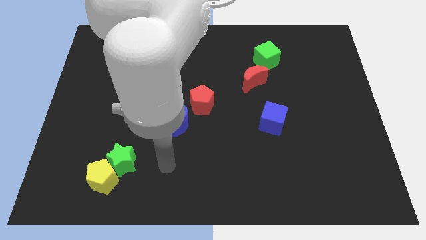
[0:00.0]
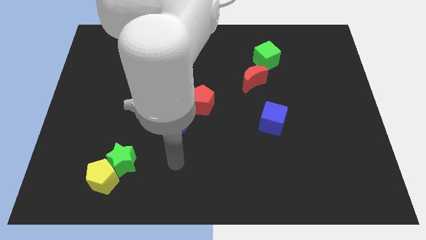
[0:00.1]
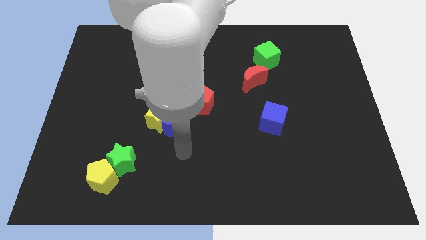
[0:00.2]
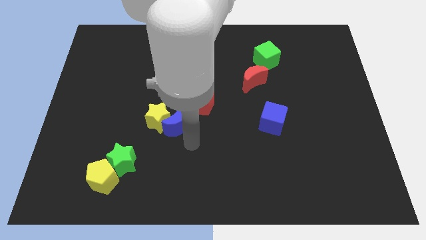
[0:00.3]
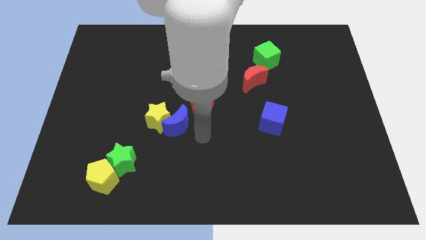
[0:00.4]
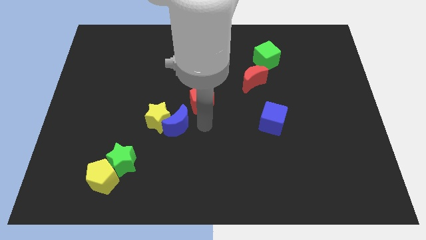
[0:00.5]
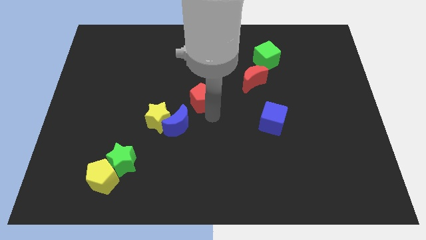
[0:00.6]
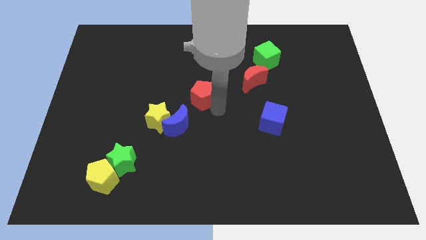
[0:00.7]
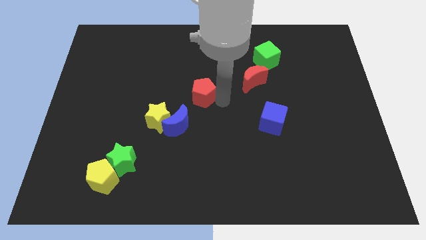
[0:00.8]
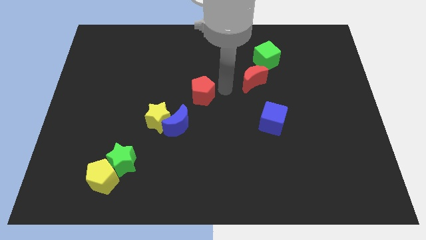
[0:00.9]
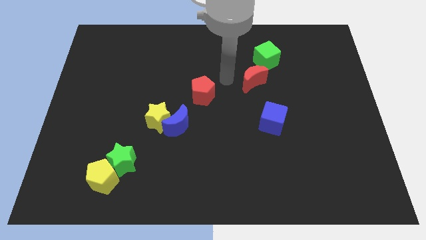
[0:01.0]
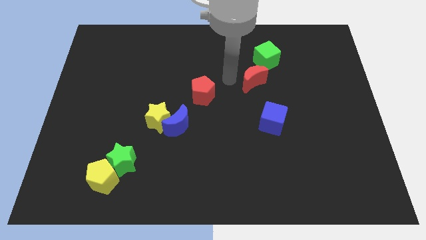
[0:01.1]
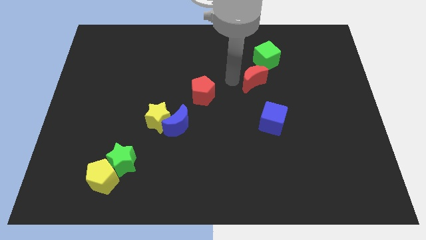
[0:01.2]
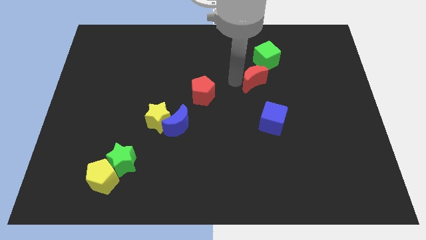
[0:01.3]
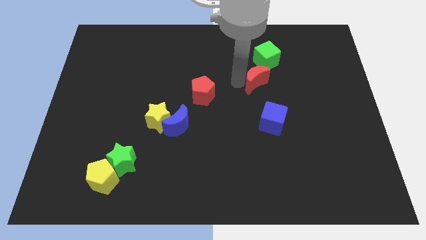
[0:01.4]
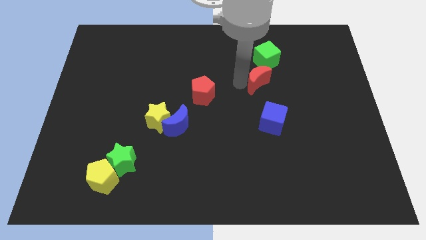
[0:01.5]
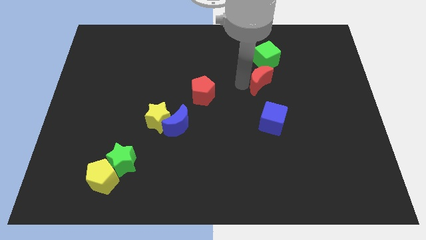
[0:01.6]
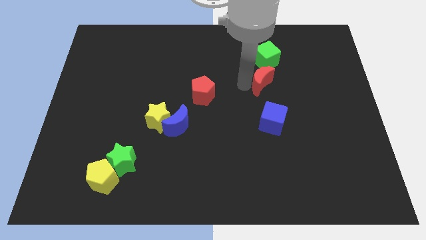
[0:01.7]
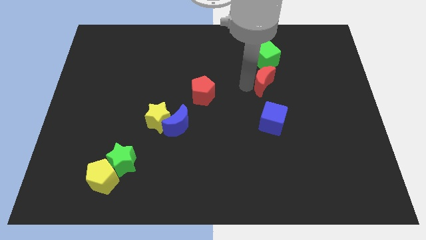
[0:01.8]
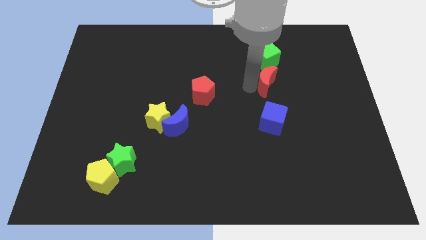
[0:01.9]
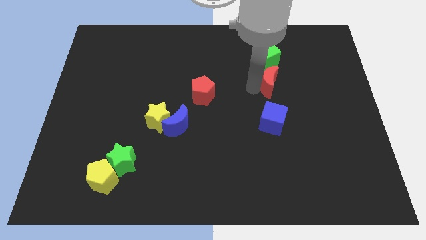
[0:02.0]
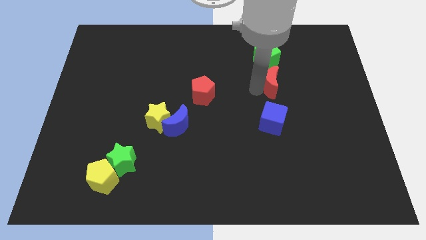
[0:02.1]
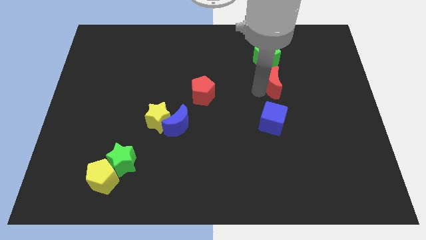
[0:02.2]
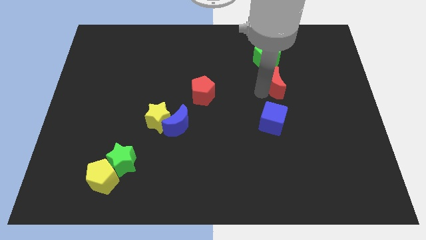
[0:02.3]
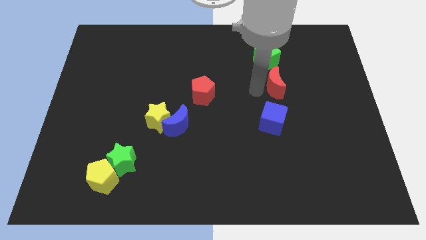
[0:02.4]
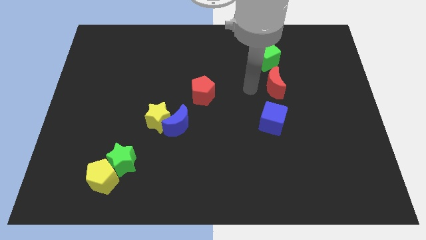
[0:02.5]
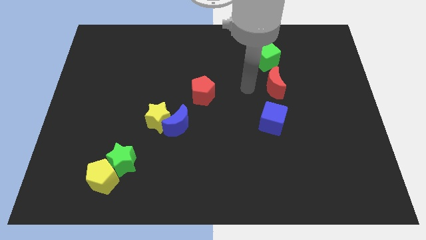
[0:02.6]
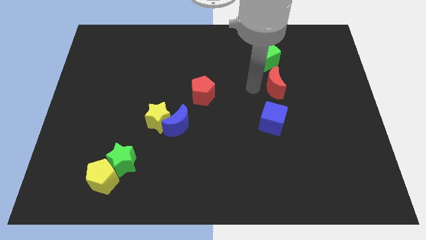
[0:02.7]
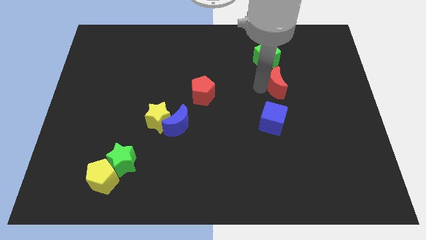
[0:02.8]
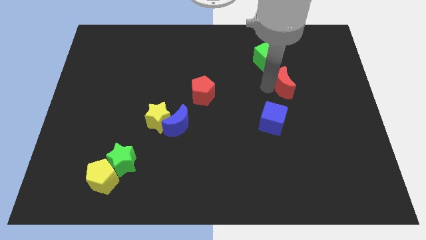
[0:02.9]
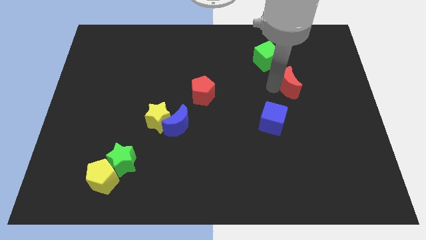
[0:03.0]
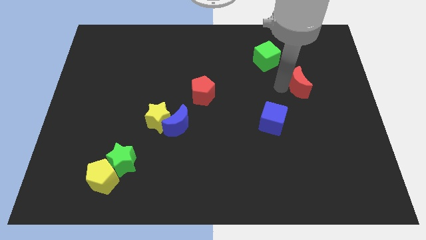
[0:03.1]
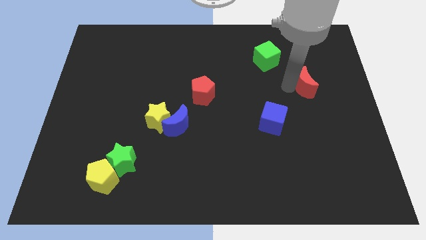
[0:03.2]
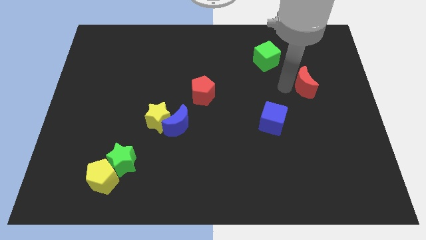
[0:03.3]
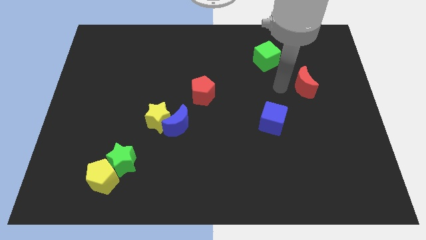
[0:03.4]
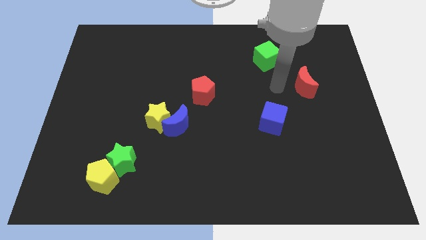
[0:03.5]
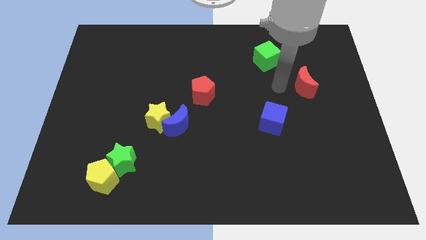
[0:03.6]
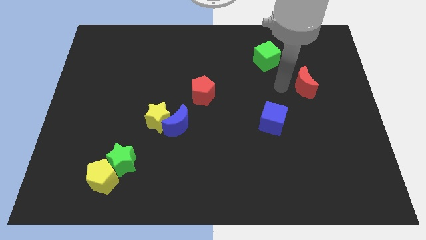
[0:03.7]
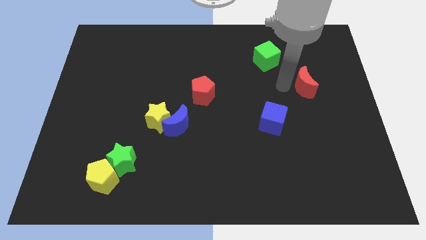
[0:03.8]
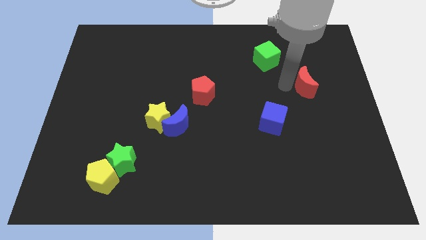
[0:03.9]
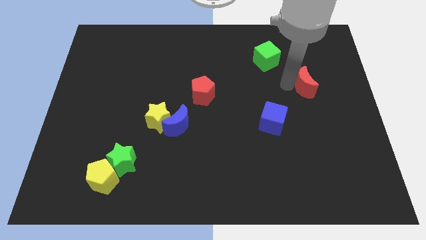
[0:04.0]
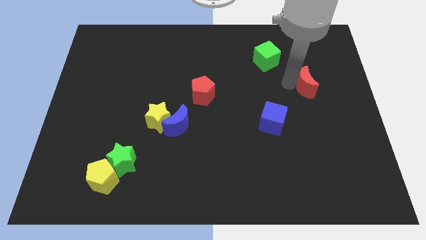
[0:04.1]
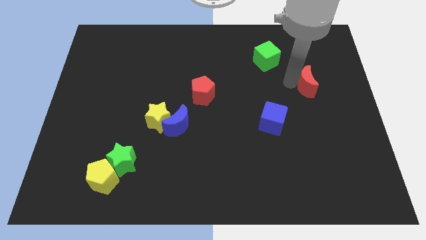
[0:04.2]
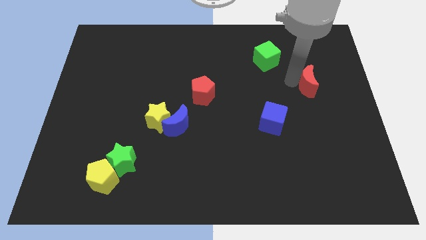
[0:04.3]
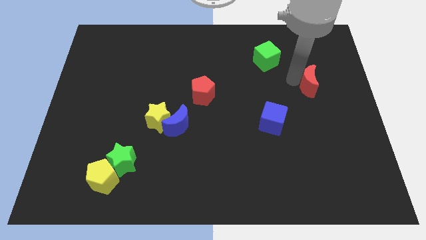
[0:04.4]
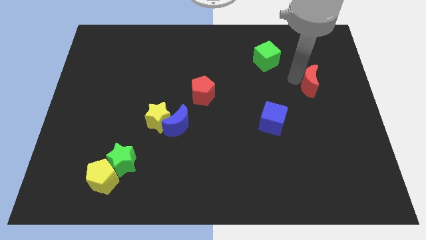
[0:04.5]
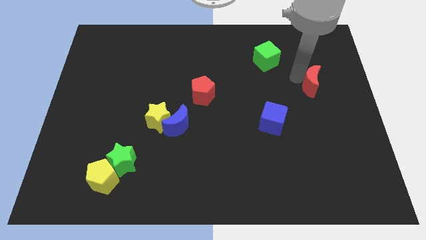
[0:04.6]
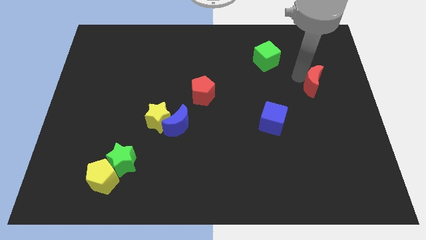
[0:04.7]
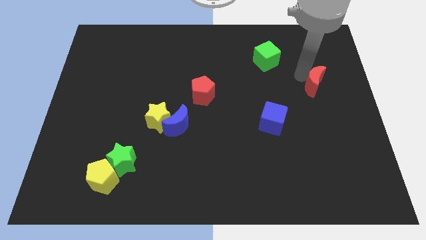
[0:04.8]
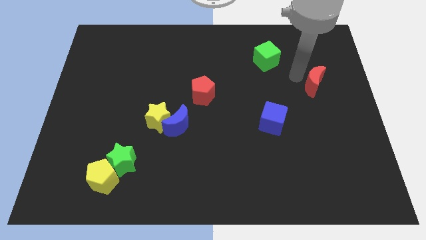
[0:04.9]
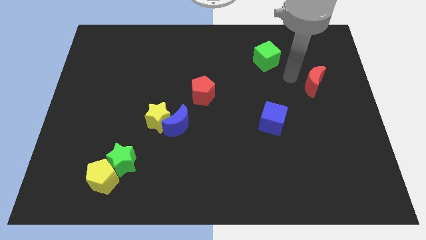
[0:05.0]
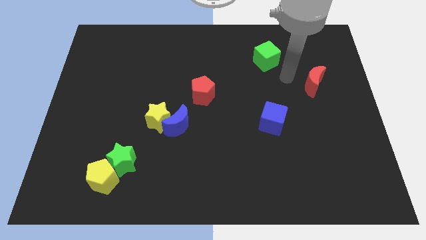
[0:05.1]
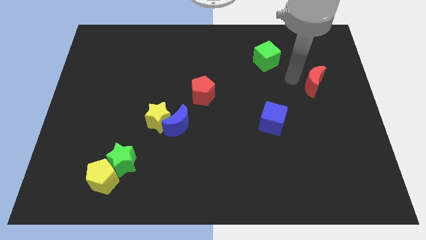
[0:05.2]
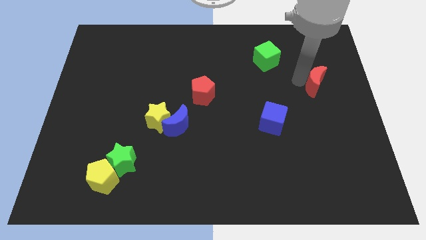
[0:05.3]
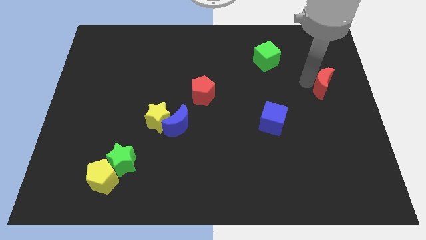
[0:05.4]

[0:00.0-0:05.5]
slide the red moon to the right side of the board
